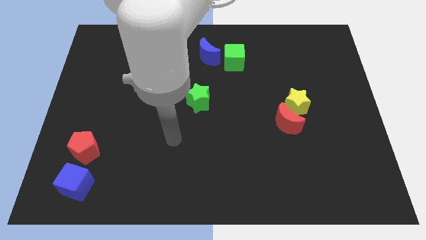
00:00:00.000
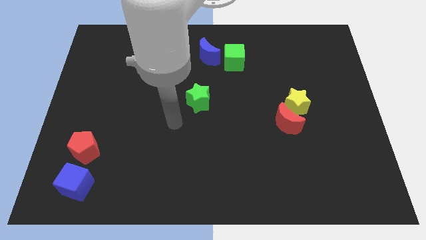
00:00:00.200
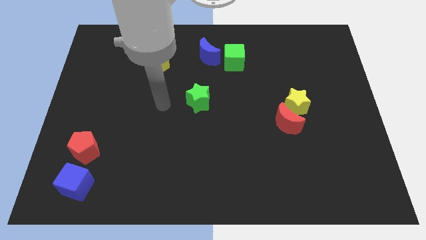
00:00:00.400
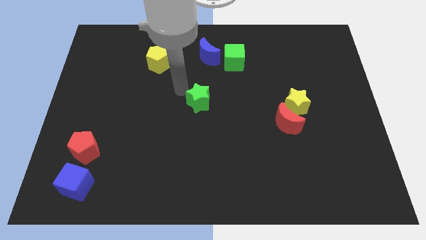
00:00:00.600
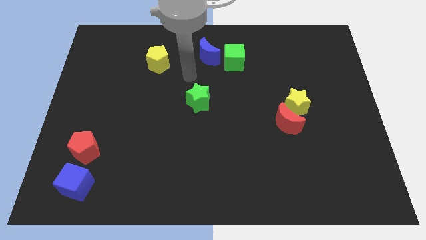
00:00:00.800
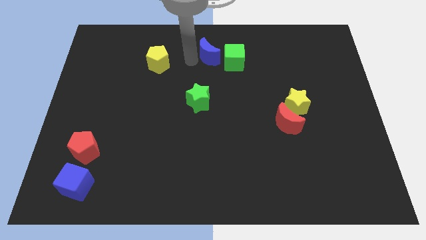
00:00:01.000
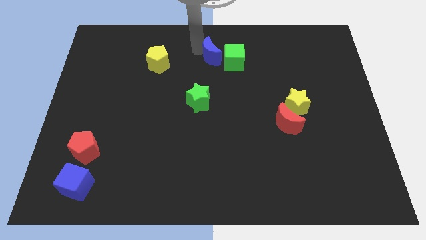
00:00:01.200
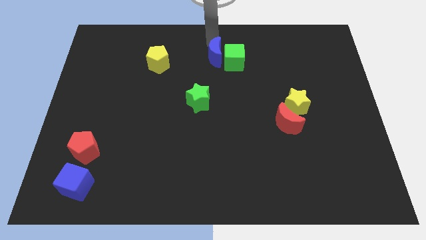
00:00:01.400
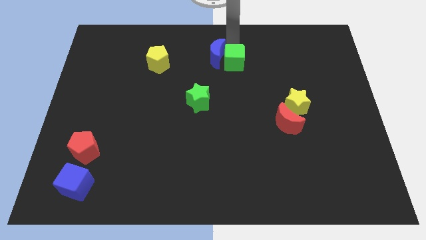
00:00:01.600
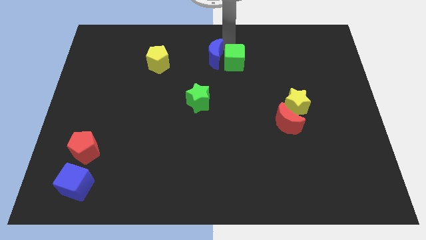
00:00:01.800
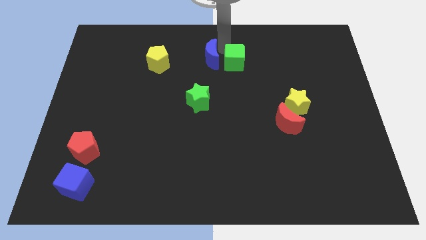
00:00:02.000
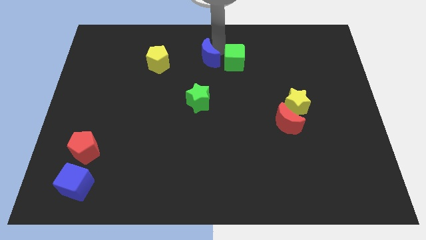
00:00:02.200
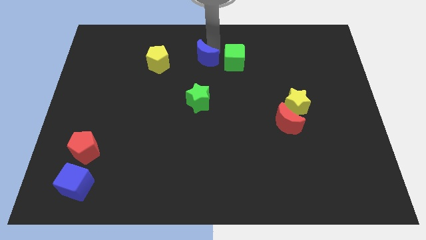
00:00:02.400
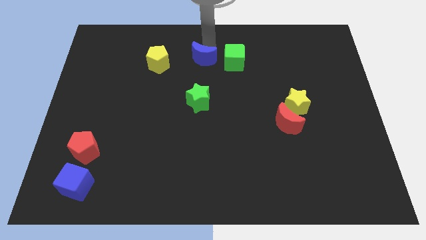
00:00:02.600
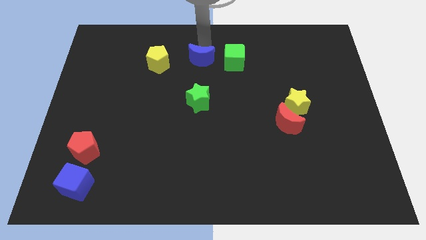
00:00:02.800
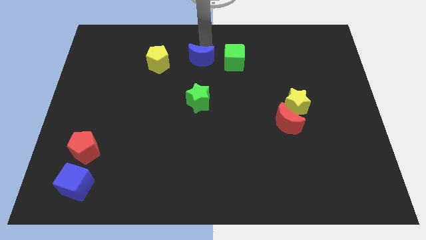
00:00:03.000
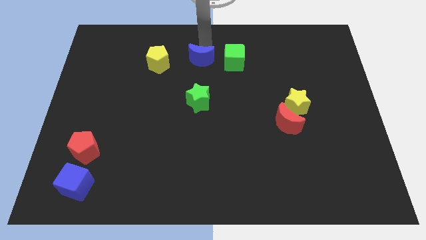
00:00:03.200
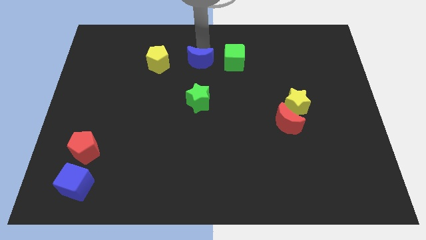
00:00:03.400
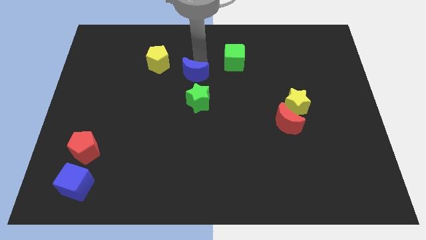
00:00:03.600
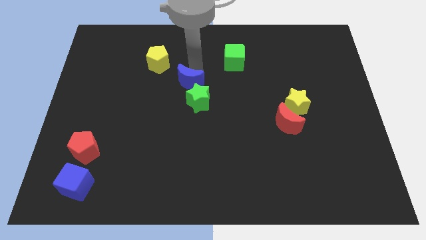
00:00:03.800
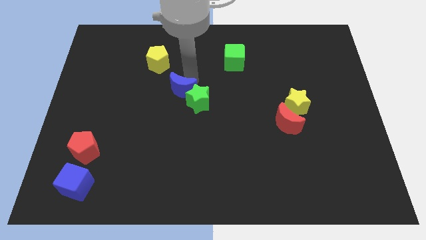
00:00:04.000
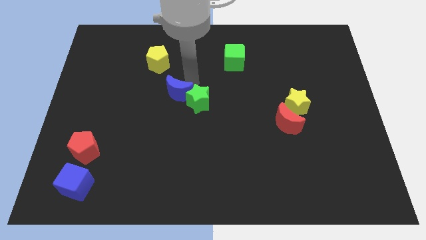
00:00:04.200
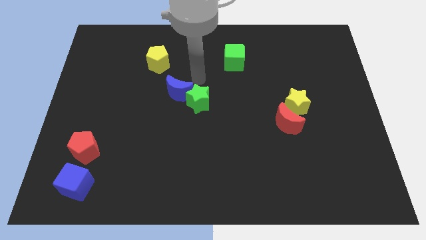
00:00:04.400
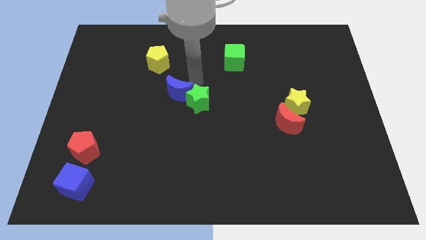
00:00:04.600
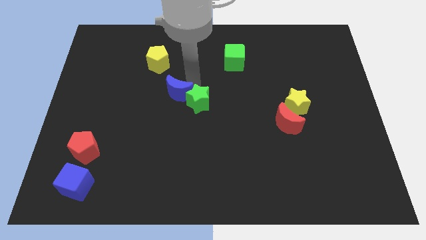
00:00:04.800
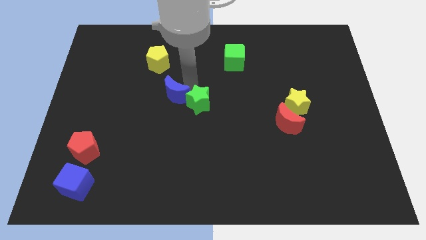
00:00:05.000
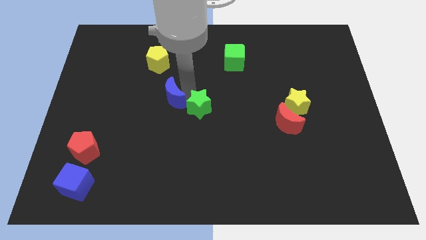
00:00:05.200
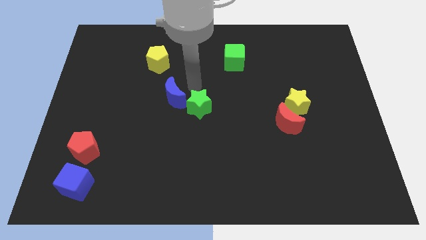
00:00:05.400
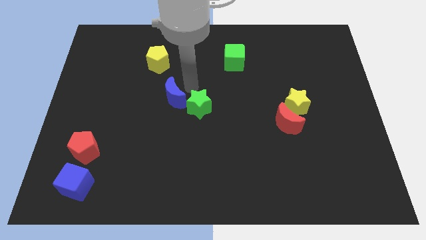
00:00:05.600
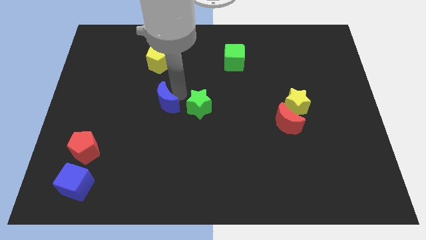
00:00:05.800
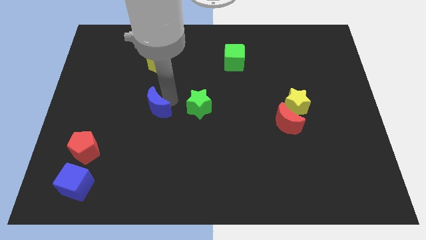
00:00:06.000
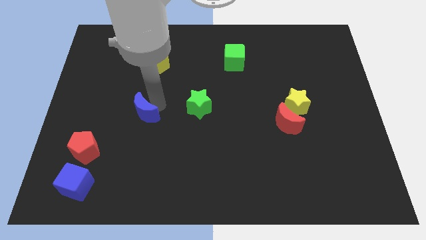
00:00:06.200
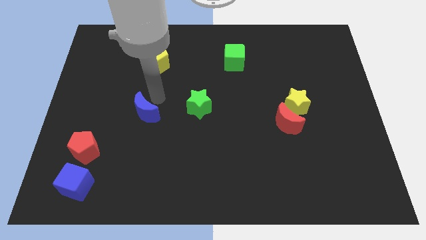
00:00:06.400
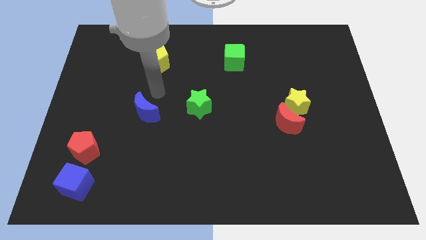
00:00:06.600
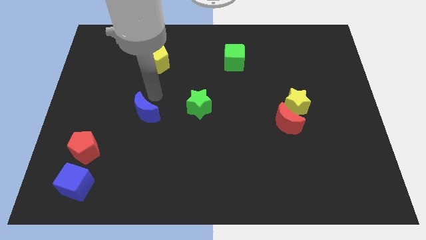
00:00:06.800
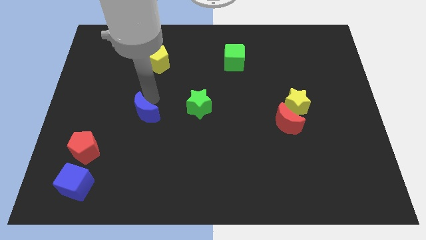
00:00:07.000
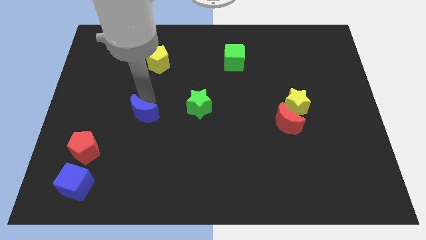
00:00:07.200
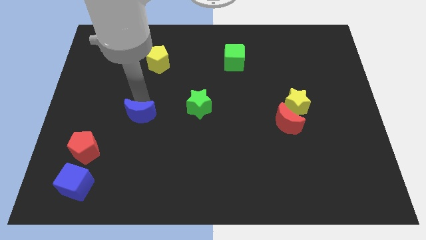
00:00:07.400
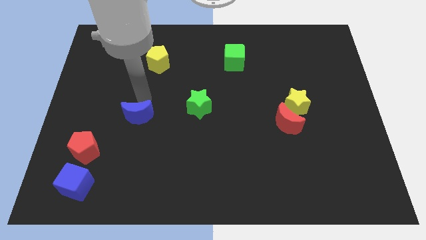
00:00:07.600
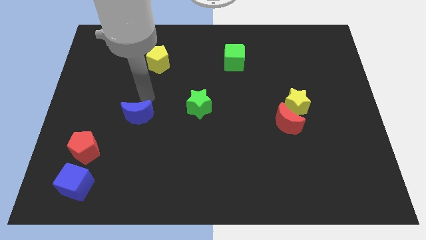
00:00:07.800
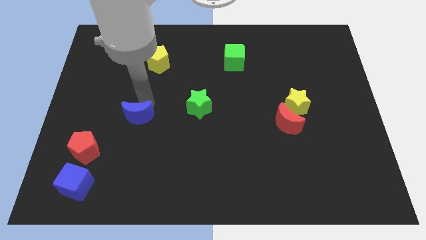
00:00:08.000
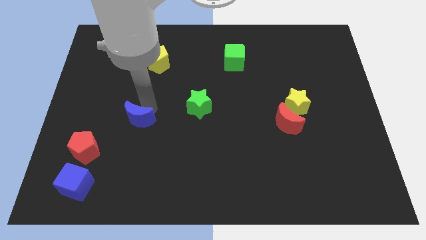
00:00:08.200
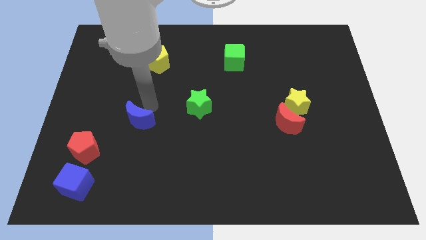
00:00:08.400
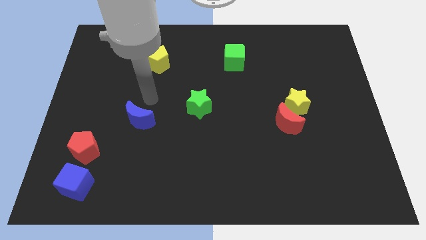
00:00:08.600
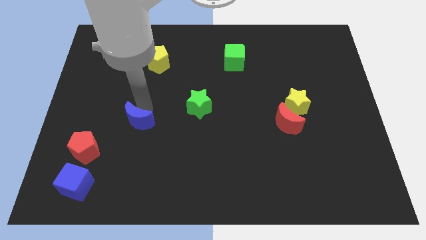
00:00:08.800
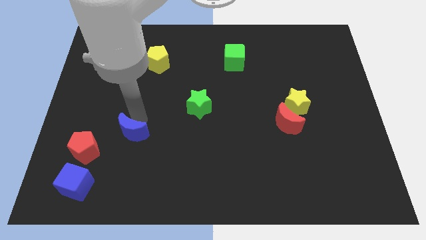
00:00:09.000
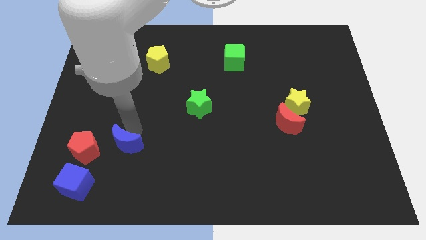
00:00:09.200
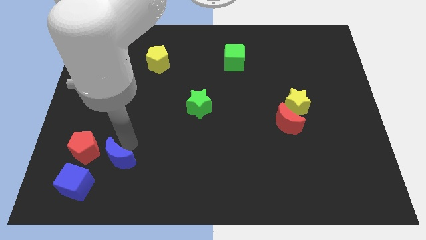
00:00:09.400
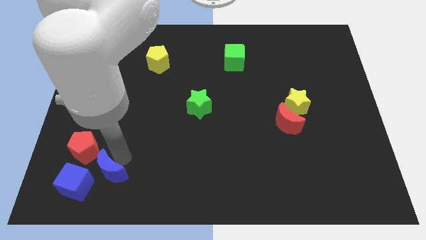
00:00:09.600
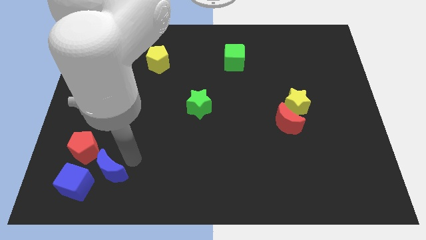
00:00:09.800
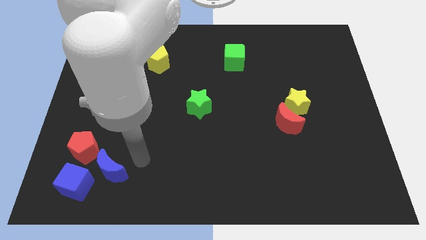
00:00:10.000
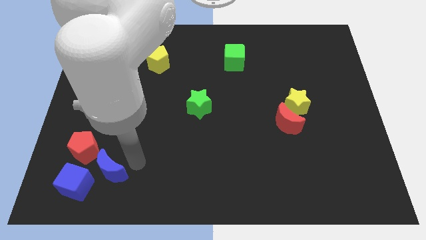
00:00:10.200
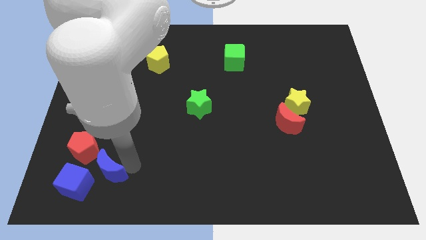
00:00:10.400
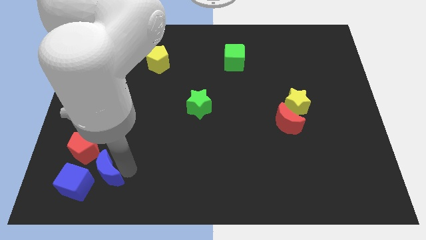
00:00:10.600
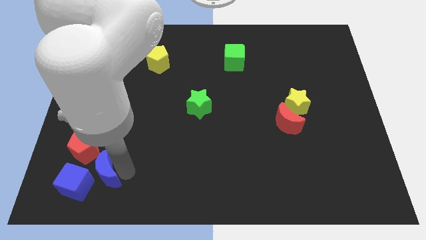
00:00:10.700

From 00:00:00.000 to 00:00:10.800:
push the blue moon towards the blue cube

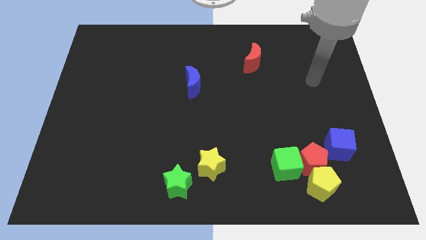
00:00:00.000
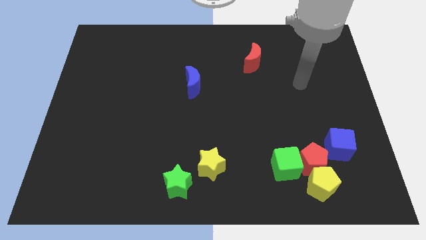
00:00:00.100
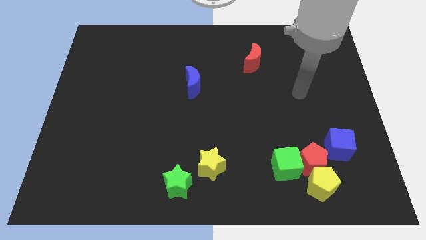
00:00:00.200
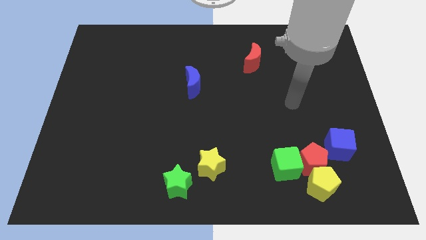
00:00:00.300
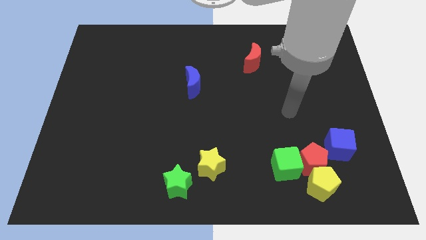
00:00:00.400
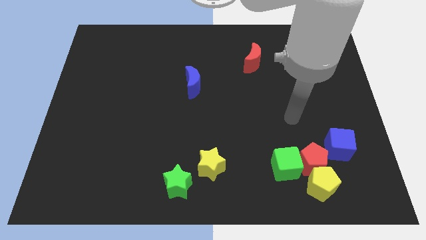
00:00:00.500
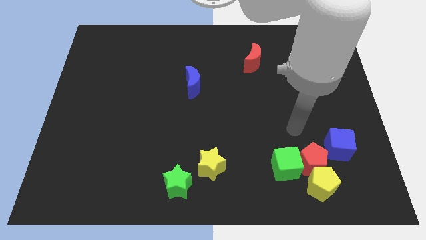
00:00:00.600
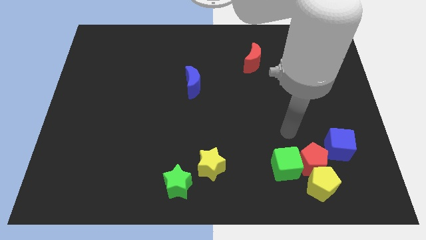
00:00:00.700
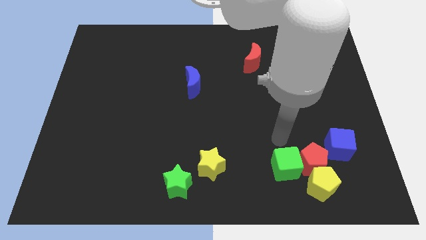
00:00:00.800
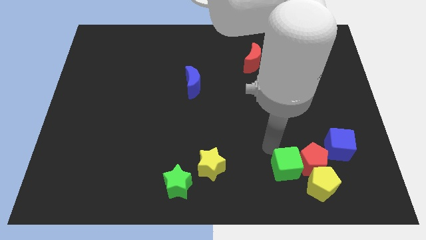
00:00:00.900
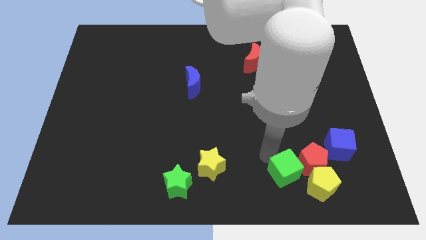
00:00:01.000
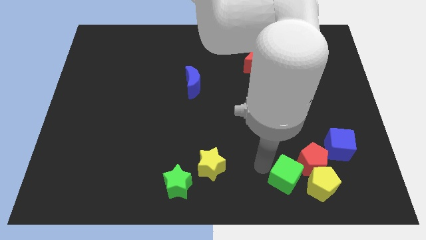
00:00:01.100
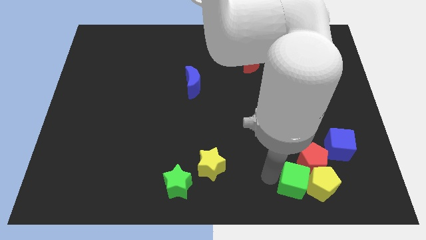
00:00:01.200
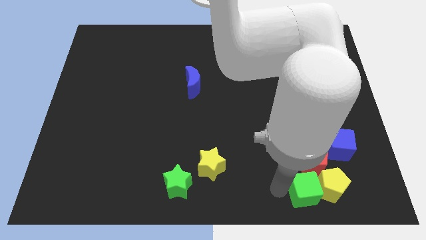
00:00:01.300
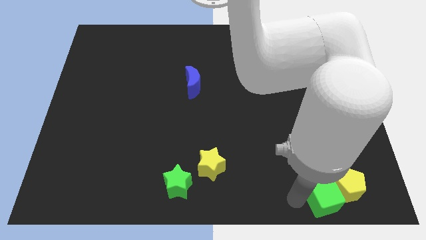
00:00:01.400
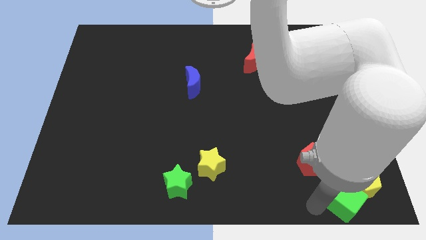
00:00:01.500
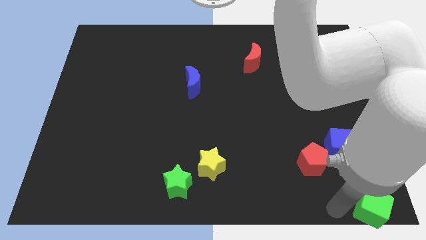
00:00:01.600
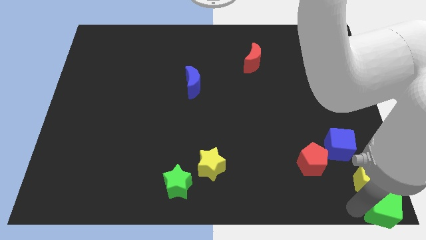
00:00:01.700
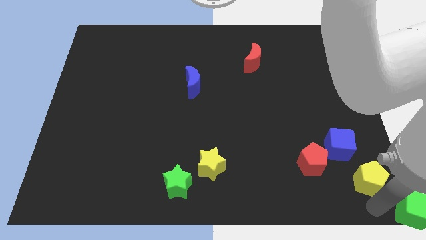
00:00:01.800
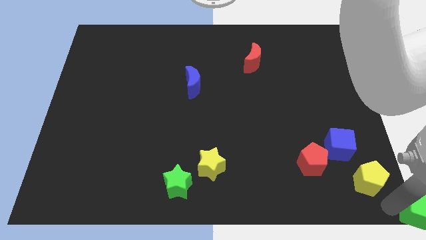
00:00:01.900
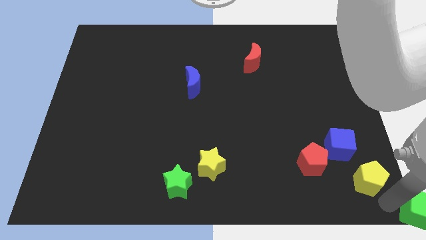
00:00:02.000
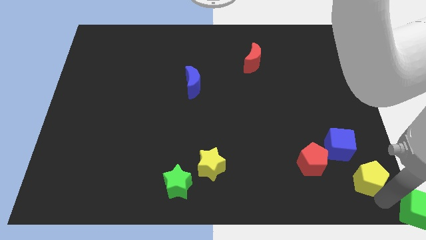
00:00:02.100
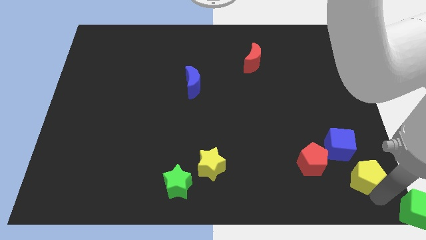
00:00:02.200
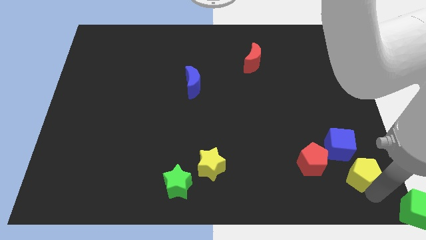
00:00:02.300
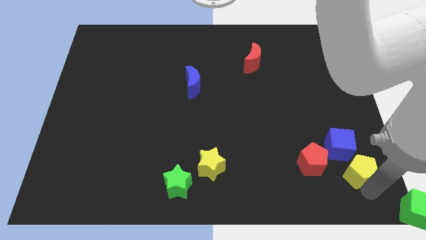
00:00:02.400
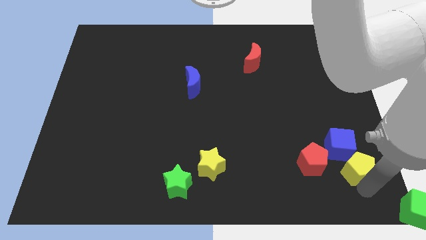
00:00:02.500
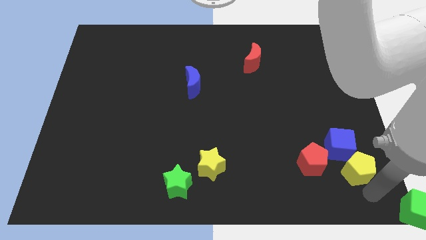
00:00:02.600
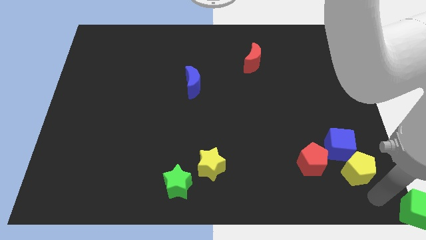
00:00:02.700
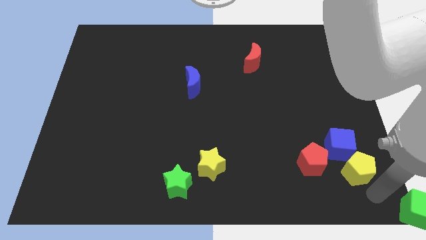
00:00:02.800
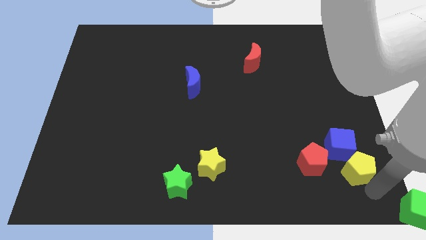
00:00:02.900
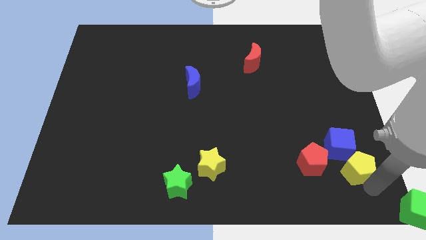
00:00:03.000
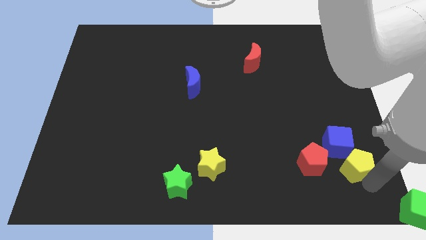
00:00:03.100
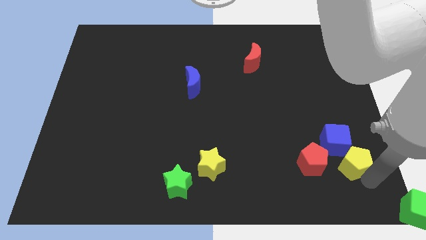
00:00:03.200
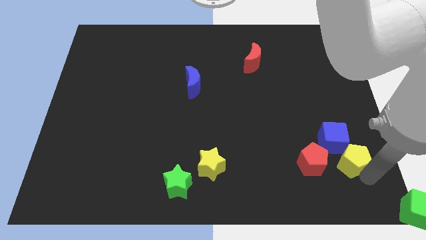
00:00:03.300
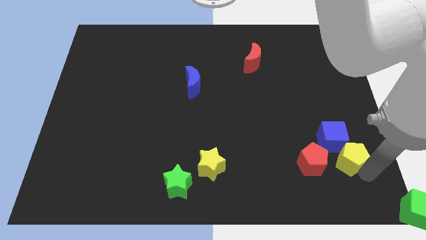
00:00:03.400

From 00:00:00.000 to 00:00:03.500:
push the yellow pentagon to the blue cube
